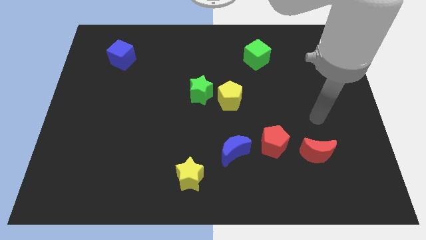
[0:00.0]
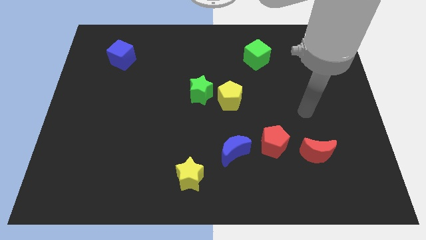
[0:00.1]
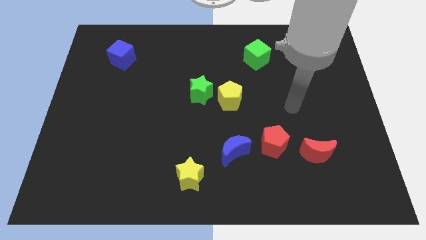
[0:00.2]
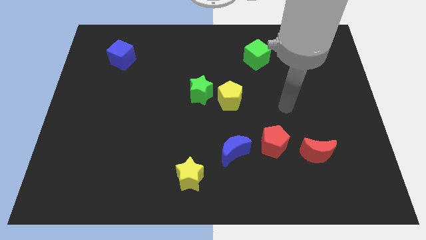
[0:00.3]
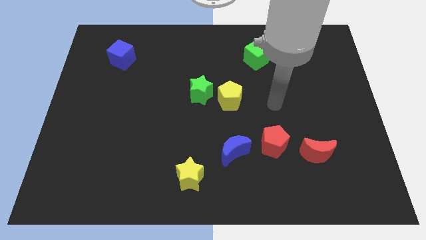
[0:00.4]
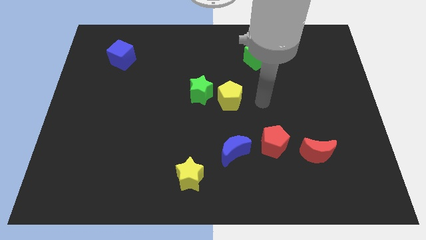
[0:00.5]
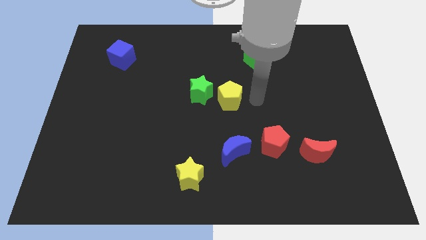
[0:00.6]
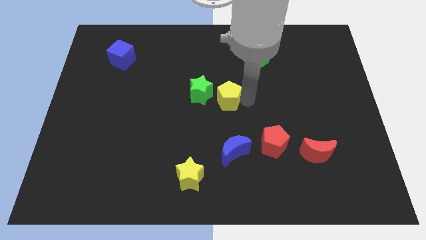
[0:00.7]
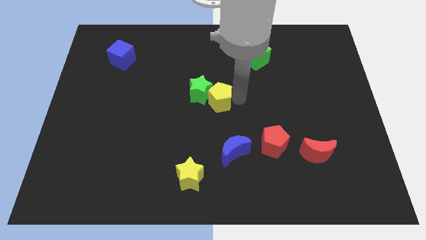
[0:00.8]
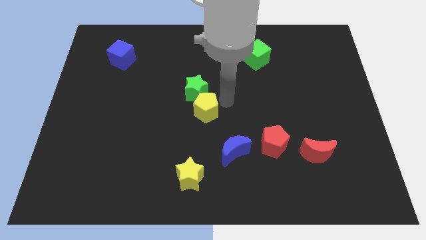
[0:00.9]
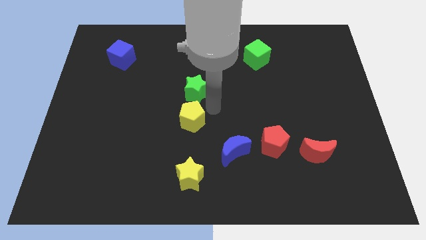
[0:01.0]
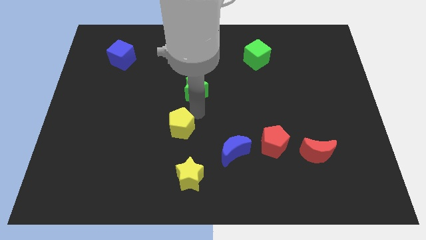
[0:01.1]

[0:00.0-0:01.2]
separate the green star from the yellow pentagon

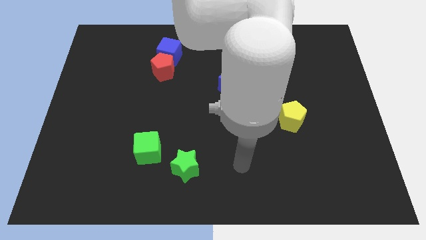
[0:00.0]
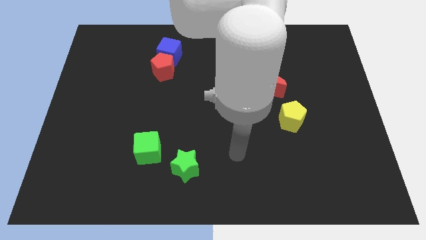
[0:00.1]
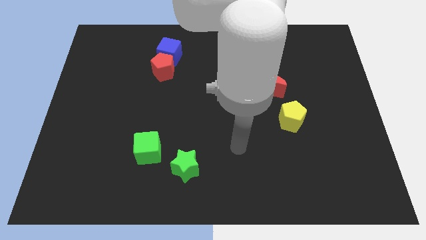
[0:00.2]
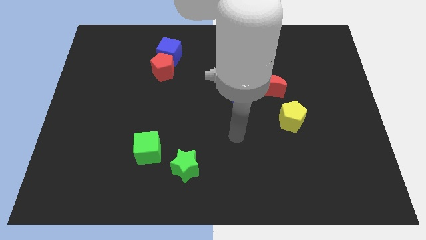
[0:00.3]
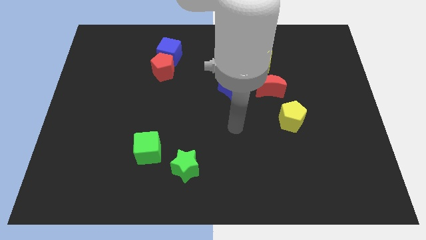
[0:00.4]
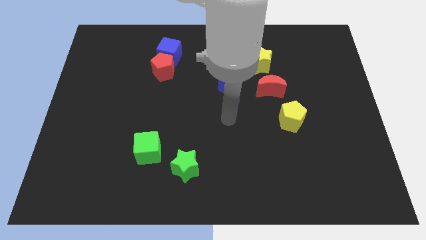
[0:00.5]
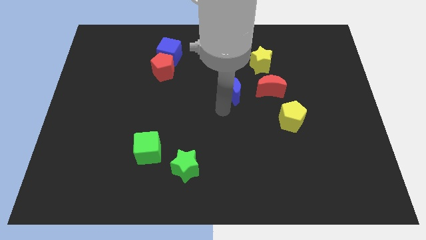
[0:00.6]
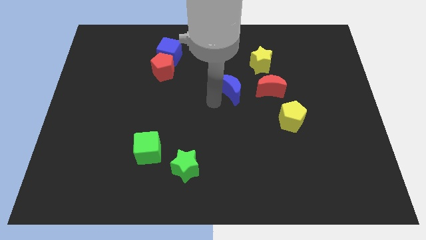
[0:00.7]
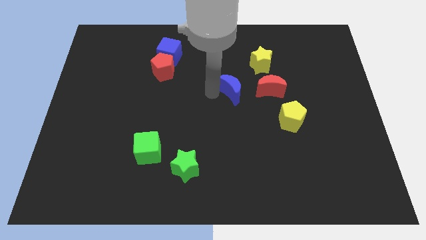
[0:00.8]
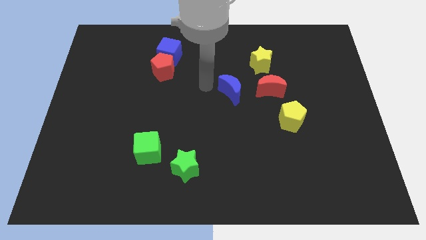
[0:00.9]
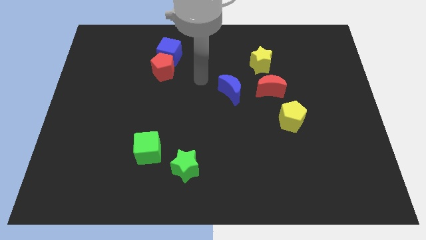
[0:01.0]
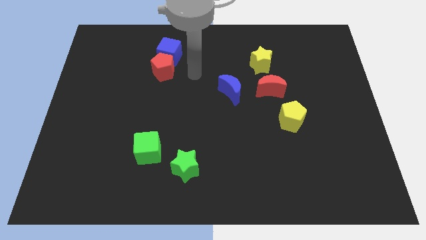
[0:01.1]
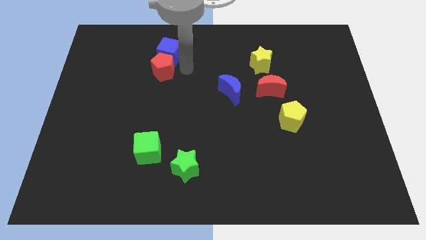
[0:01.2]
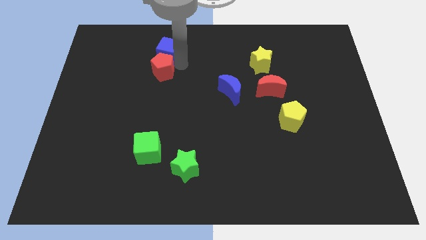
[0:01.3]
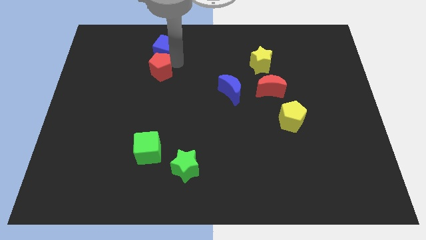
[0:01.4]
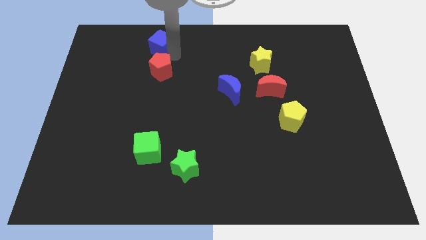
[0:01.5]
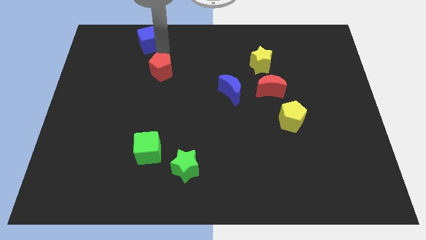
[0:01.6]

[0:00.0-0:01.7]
move the red pentagon away from the blue cube

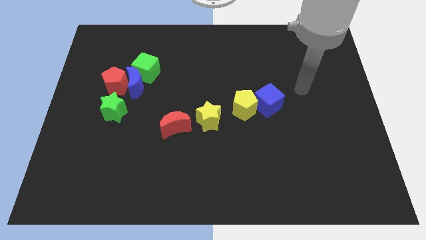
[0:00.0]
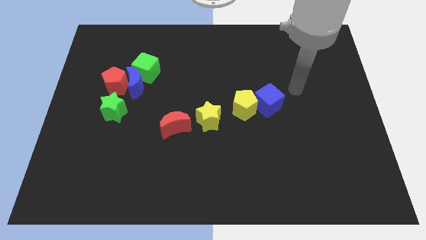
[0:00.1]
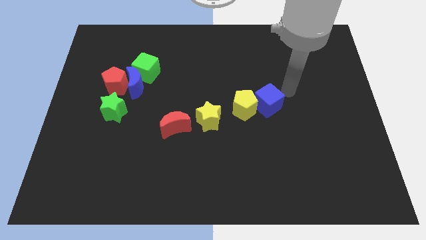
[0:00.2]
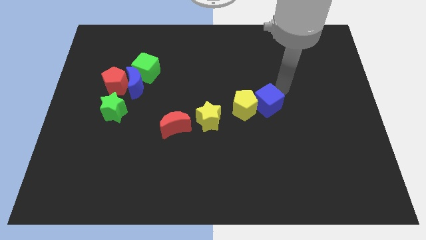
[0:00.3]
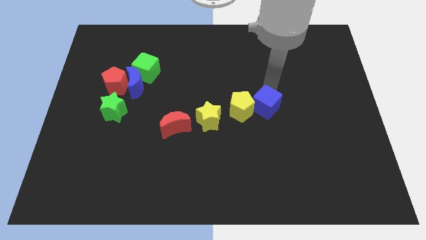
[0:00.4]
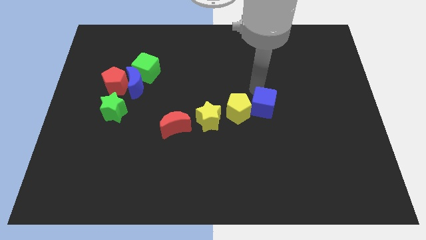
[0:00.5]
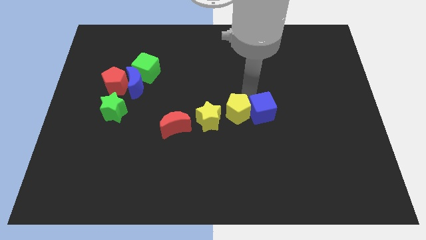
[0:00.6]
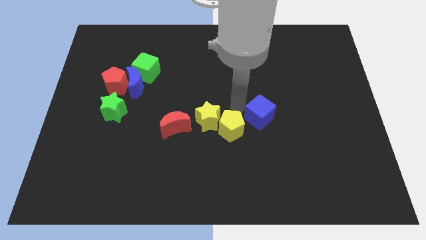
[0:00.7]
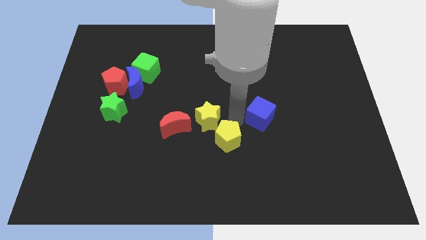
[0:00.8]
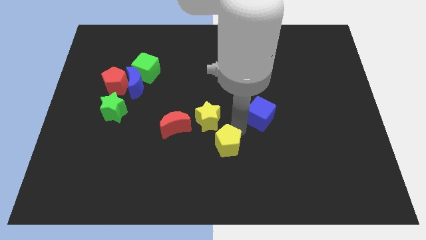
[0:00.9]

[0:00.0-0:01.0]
separate the blue cube from the yellow pentagon

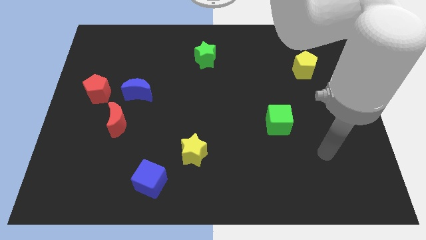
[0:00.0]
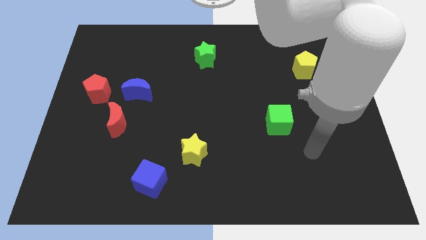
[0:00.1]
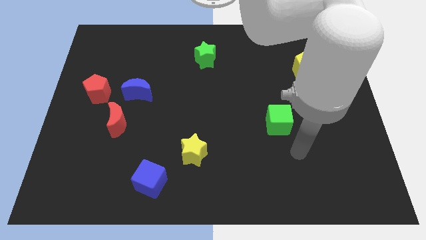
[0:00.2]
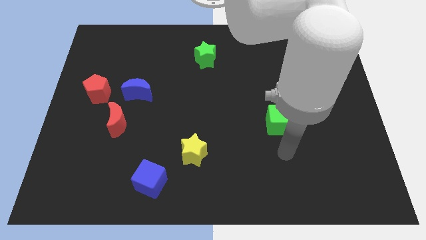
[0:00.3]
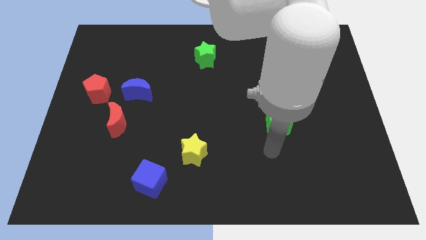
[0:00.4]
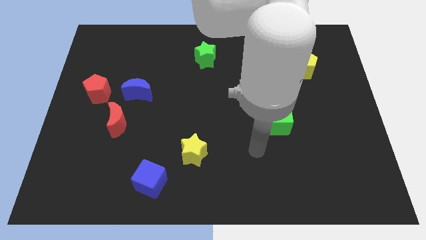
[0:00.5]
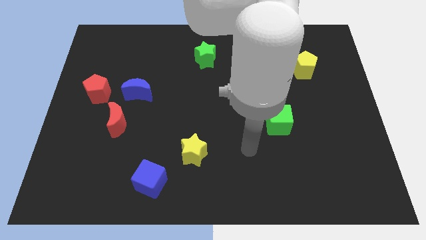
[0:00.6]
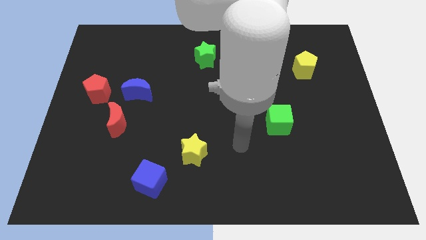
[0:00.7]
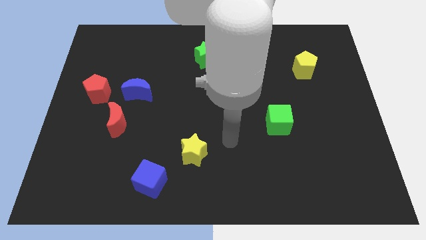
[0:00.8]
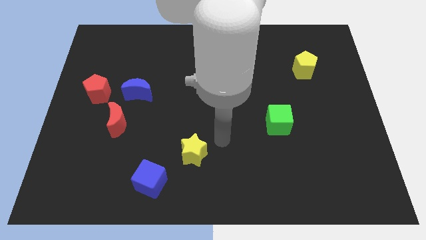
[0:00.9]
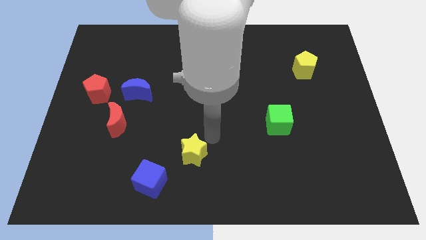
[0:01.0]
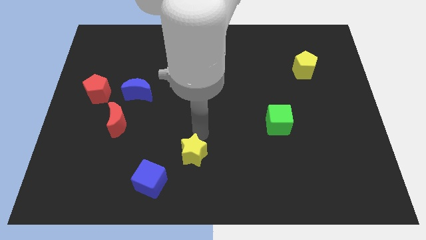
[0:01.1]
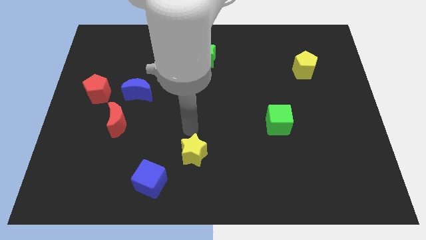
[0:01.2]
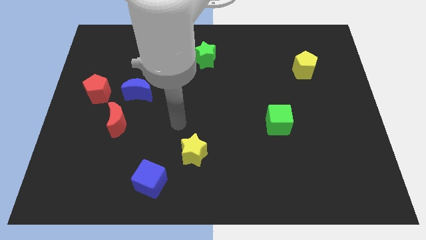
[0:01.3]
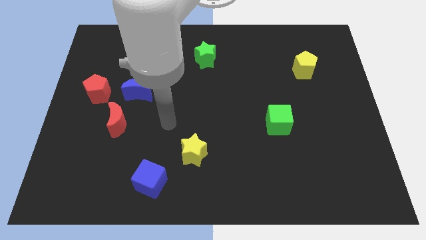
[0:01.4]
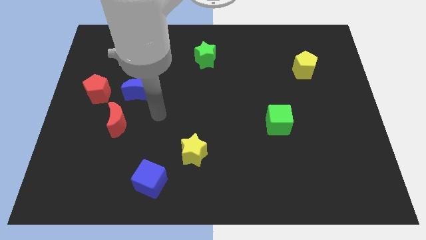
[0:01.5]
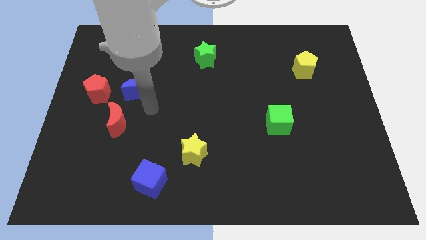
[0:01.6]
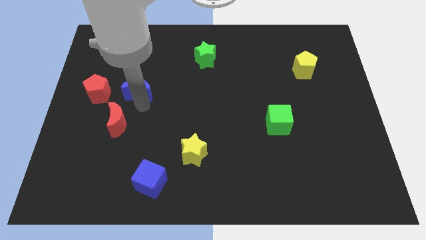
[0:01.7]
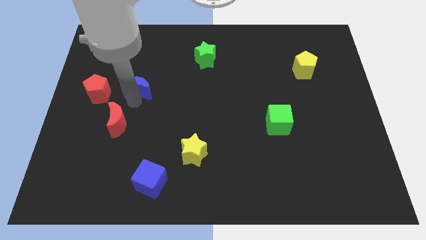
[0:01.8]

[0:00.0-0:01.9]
separate the red moon from the blue moon

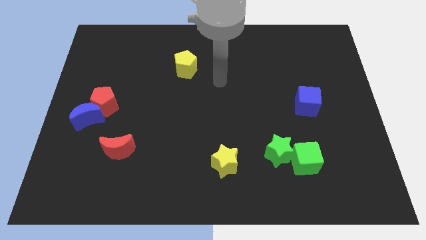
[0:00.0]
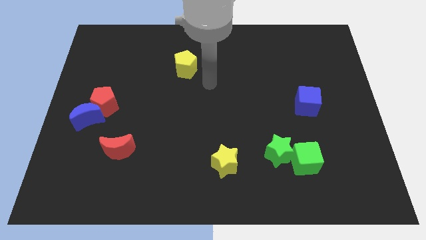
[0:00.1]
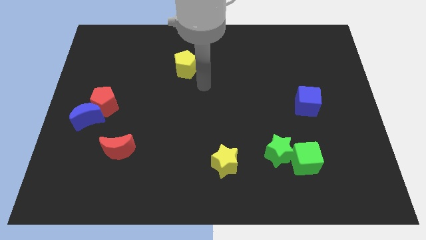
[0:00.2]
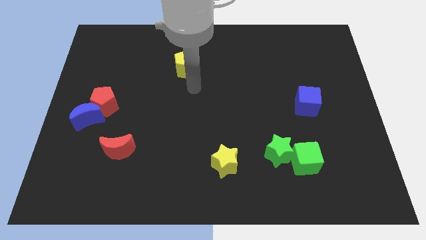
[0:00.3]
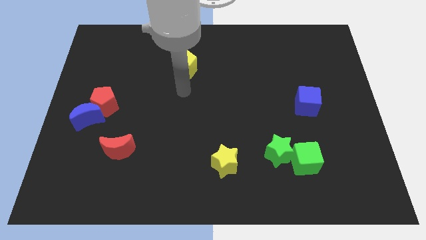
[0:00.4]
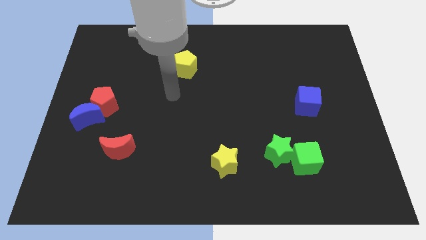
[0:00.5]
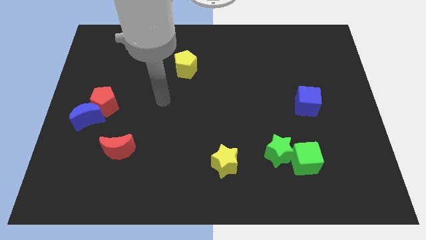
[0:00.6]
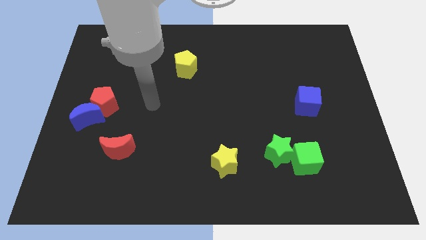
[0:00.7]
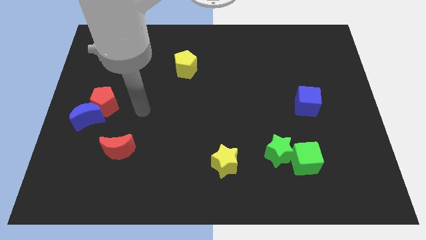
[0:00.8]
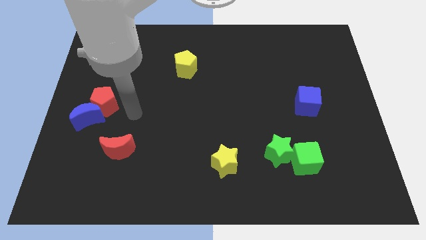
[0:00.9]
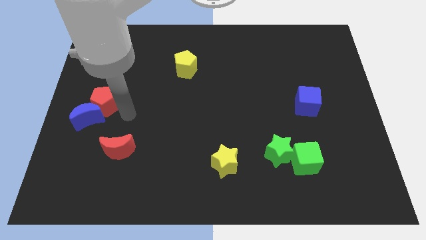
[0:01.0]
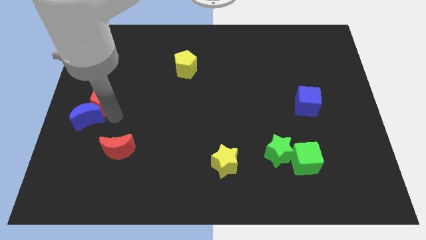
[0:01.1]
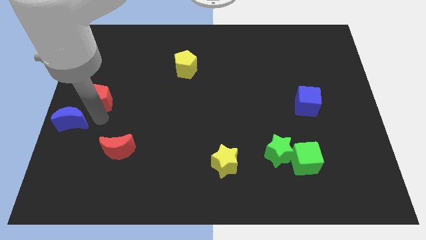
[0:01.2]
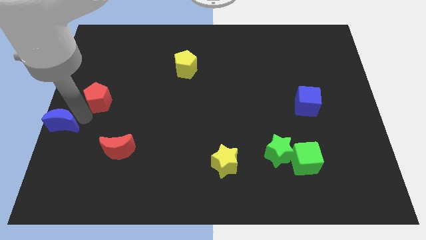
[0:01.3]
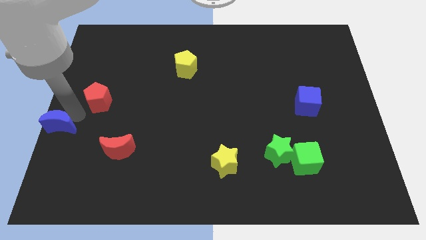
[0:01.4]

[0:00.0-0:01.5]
pull the red pentagon apart from the blue moon

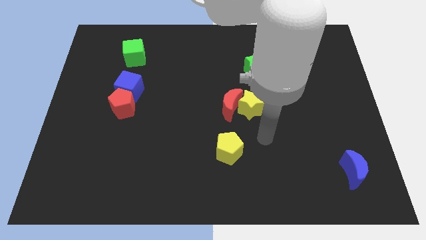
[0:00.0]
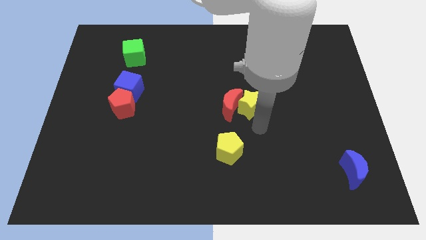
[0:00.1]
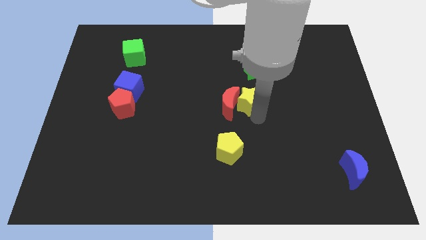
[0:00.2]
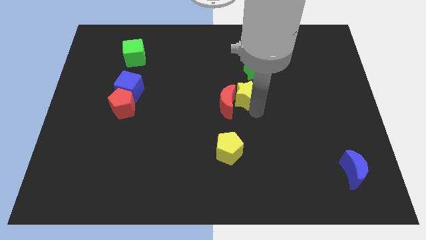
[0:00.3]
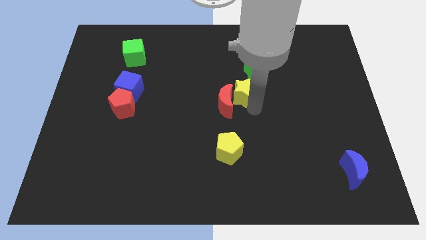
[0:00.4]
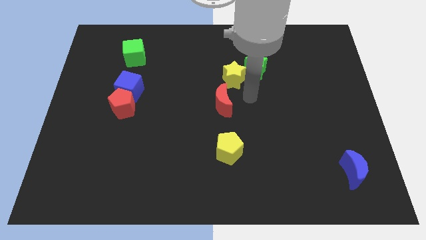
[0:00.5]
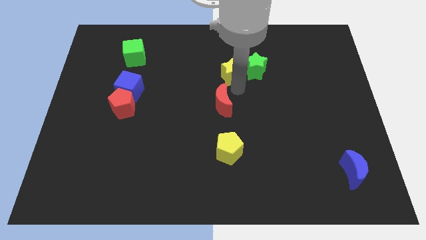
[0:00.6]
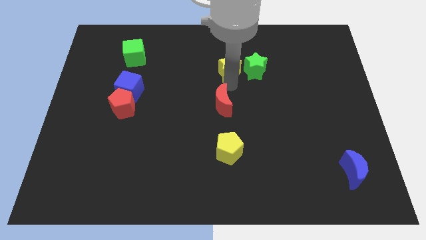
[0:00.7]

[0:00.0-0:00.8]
separate the red moon from the yellow star

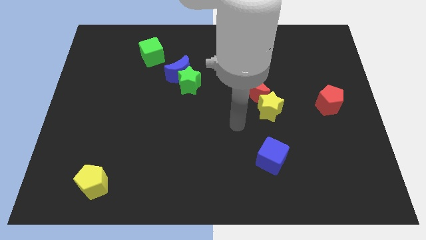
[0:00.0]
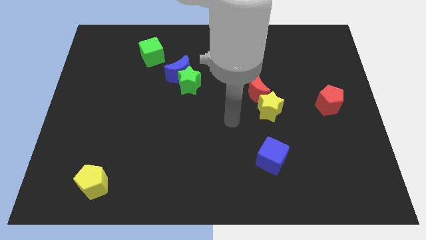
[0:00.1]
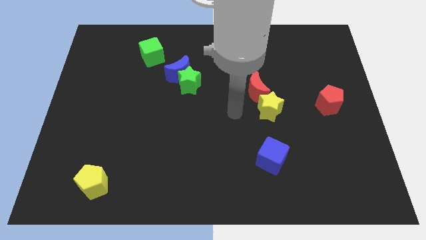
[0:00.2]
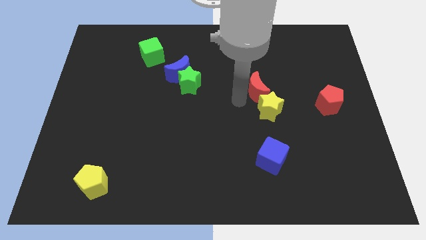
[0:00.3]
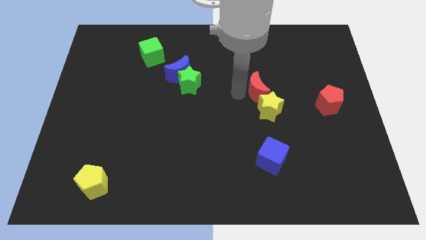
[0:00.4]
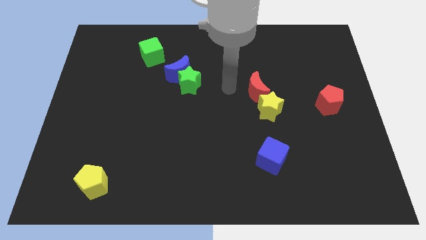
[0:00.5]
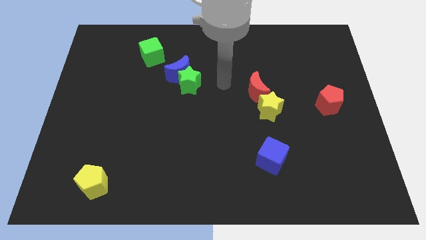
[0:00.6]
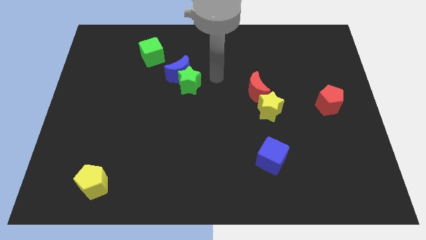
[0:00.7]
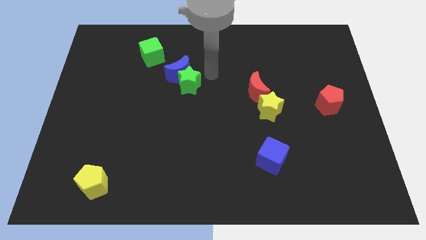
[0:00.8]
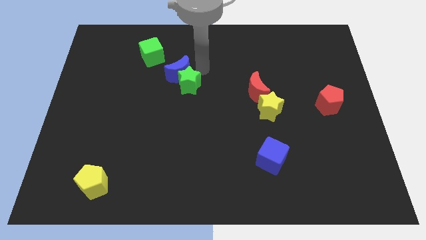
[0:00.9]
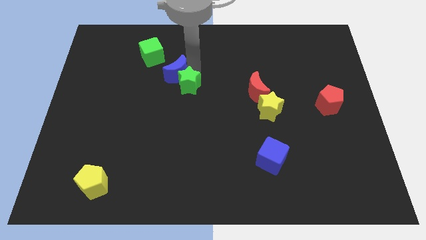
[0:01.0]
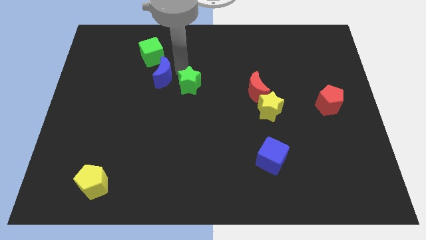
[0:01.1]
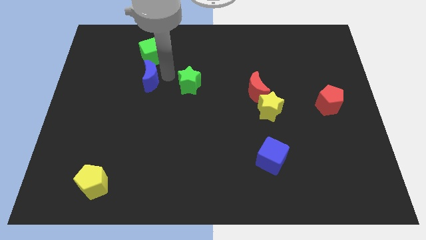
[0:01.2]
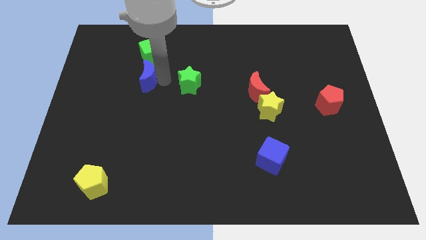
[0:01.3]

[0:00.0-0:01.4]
move the green star away from the blue moon
